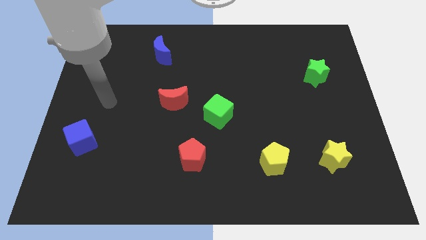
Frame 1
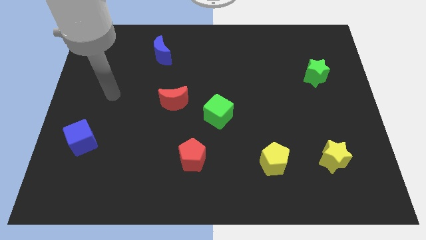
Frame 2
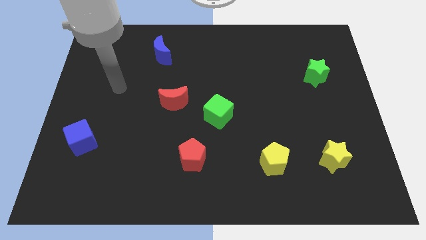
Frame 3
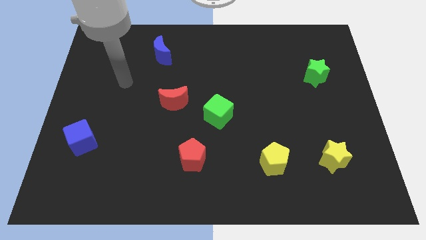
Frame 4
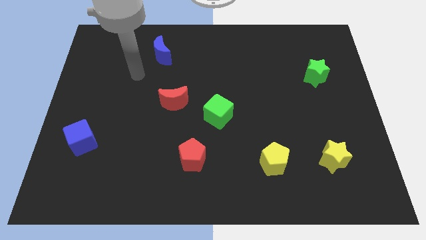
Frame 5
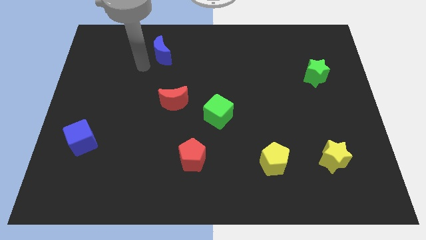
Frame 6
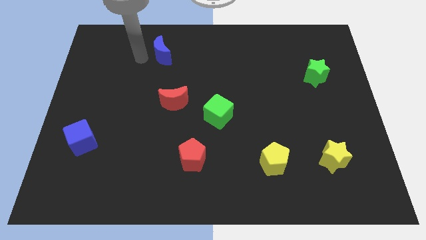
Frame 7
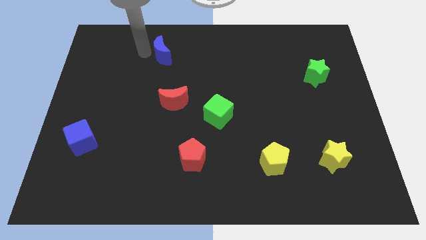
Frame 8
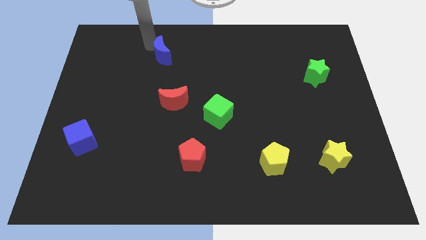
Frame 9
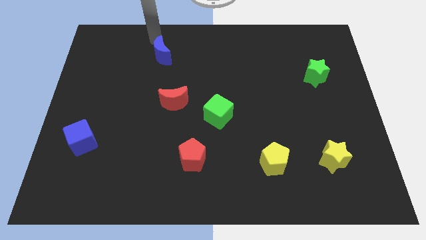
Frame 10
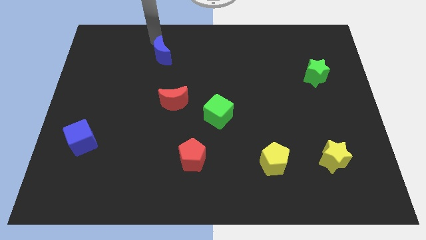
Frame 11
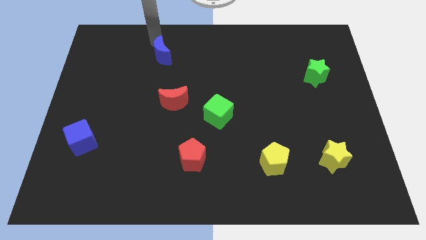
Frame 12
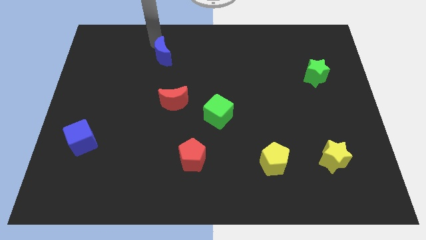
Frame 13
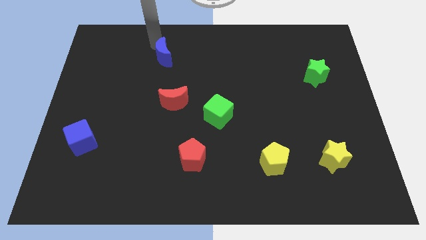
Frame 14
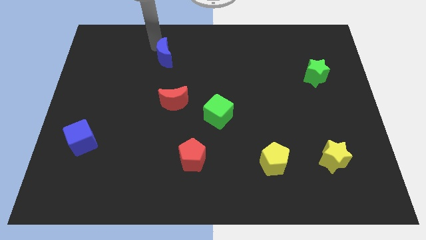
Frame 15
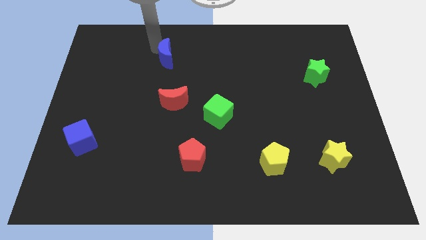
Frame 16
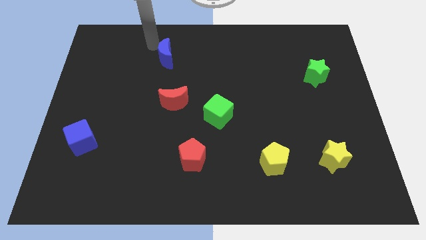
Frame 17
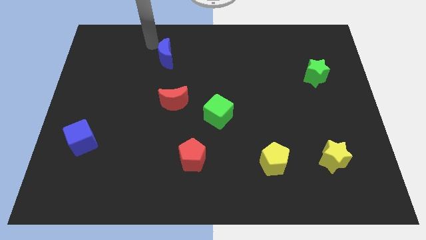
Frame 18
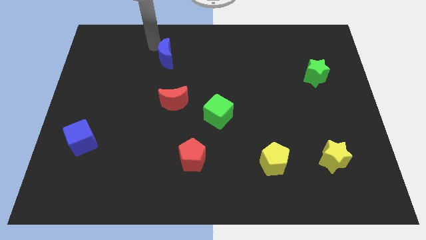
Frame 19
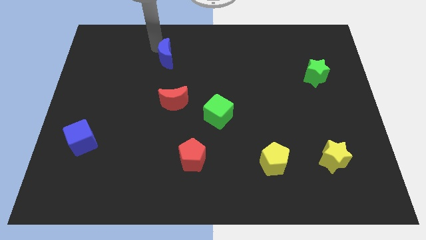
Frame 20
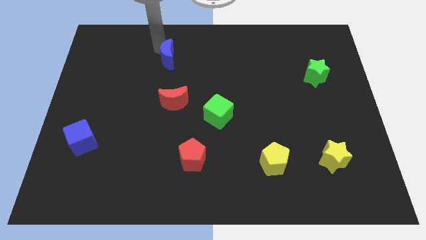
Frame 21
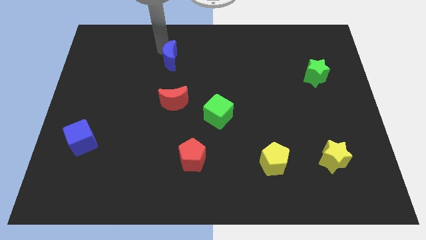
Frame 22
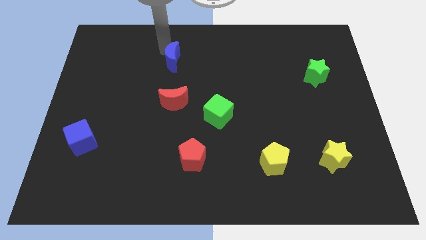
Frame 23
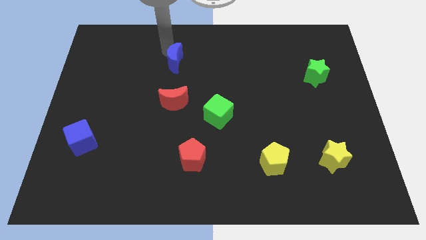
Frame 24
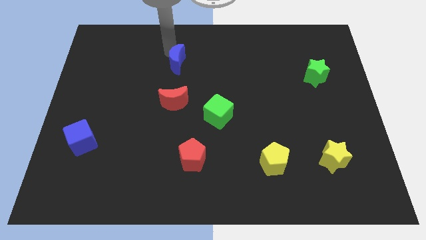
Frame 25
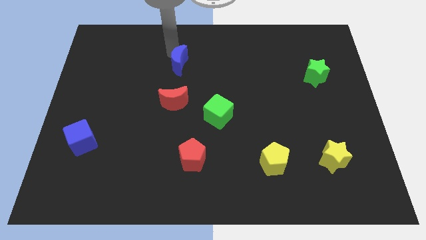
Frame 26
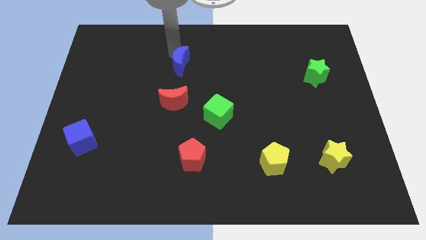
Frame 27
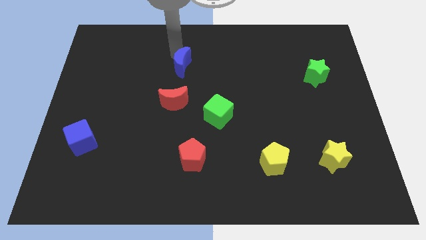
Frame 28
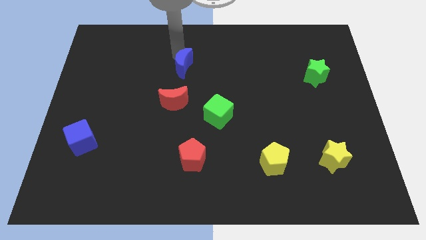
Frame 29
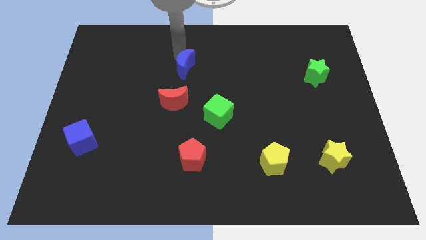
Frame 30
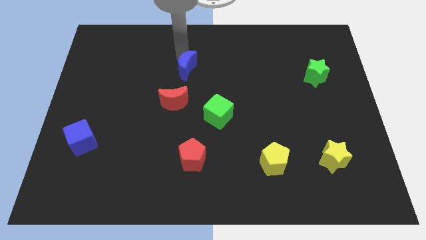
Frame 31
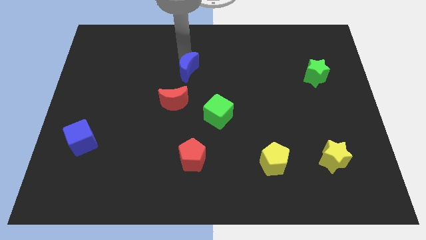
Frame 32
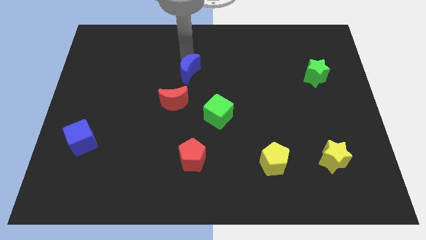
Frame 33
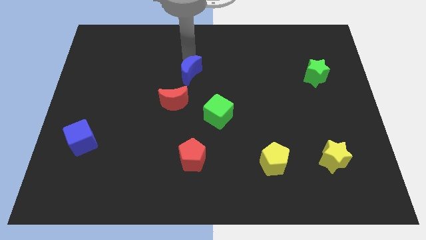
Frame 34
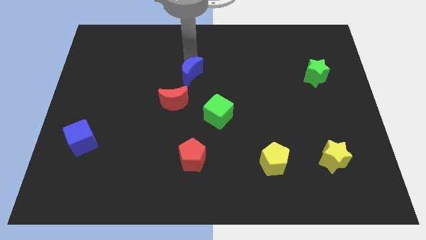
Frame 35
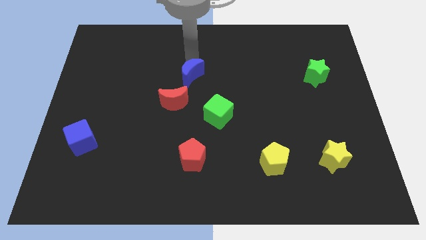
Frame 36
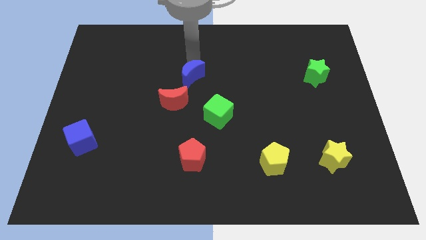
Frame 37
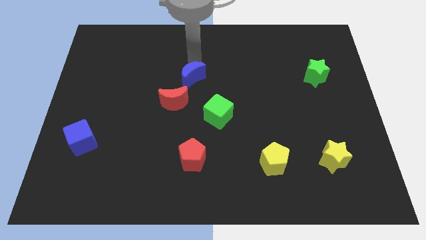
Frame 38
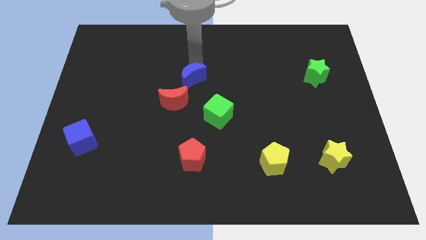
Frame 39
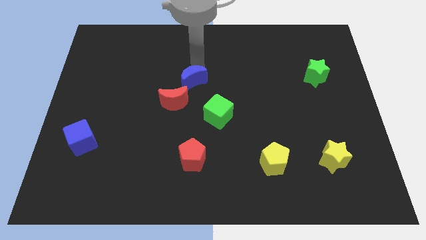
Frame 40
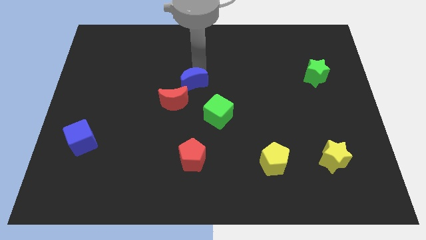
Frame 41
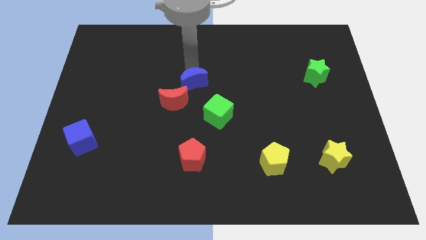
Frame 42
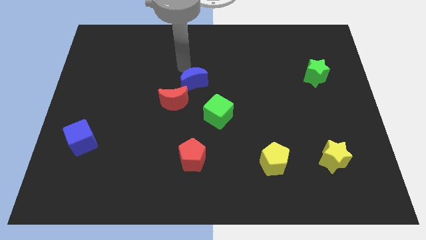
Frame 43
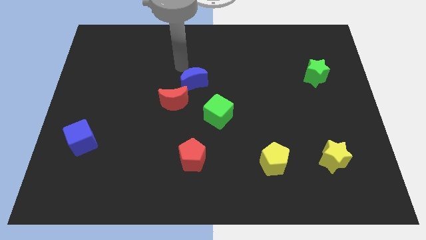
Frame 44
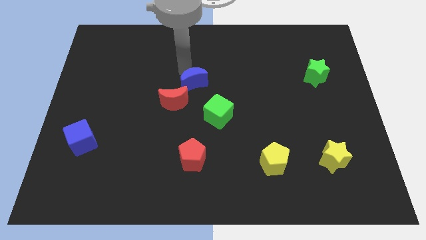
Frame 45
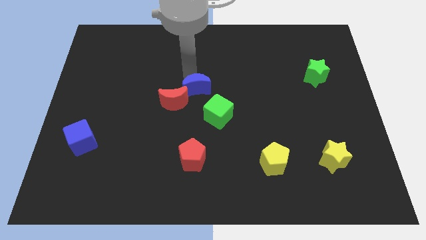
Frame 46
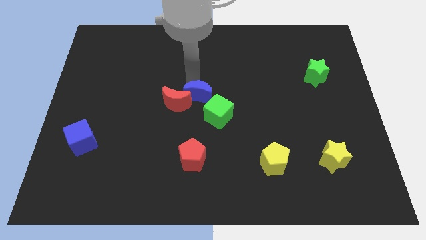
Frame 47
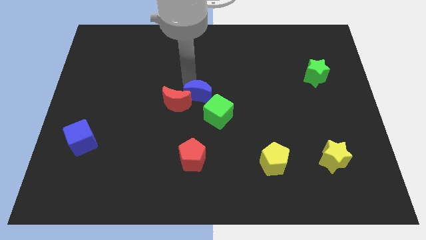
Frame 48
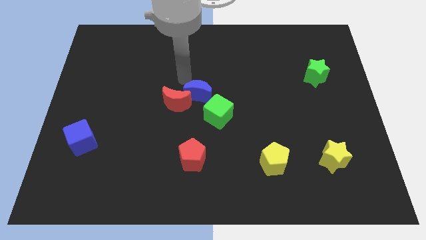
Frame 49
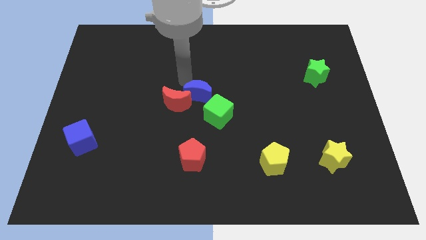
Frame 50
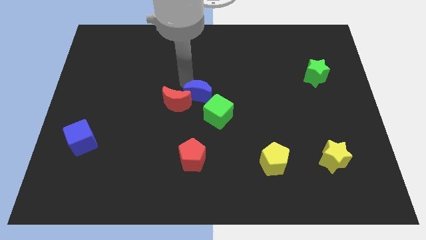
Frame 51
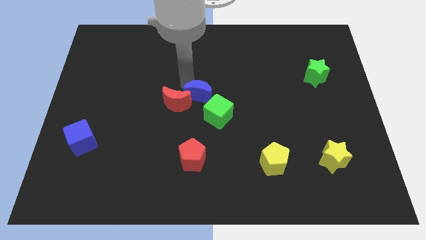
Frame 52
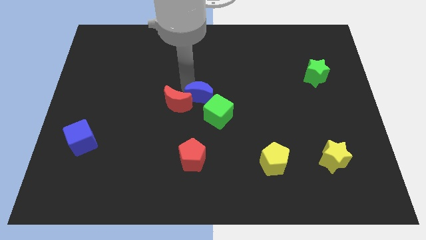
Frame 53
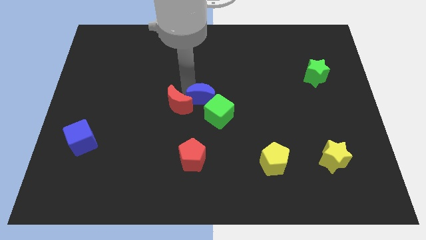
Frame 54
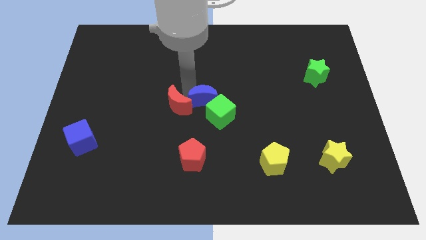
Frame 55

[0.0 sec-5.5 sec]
slide the blue moon to the green cube
